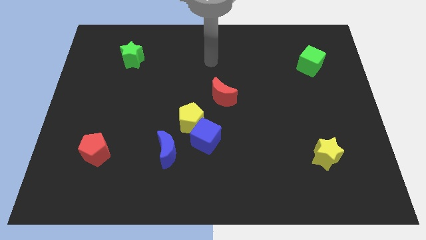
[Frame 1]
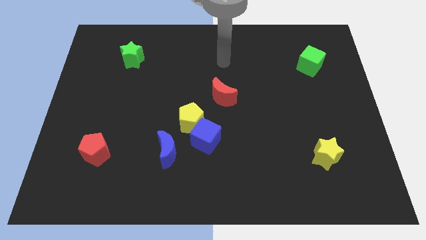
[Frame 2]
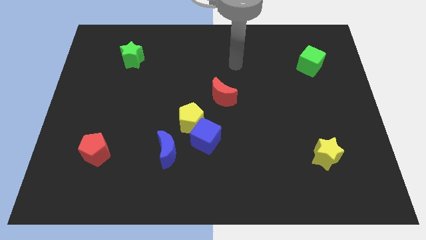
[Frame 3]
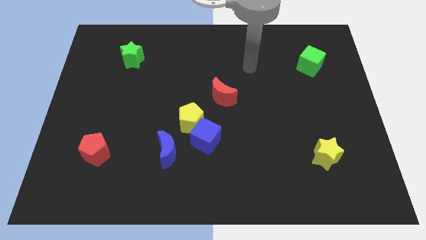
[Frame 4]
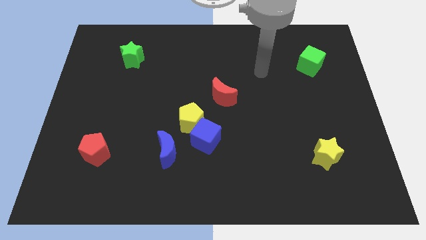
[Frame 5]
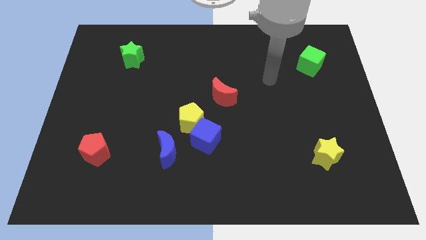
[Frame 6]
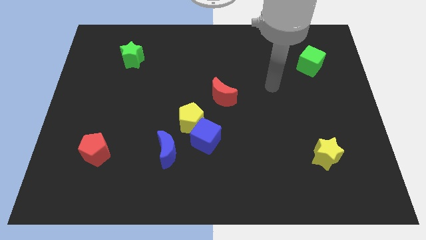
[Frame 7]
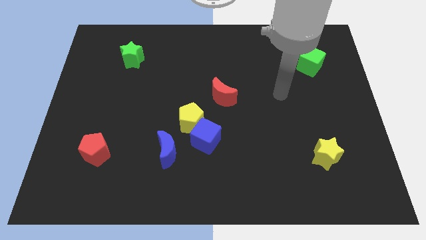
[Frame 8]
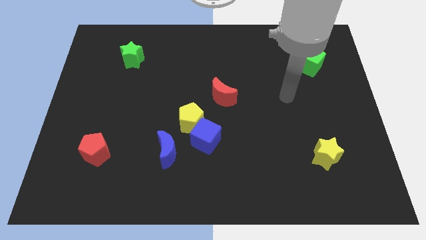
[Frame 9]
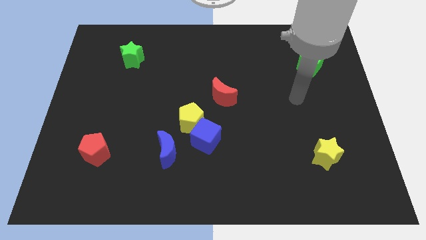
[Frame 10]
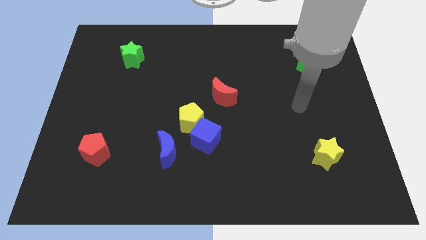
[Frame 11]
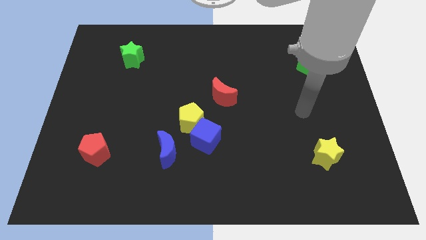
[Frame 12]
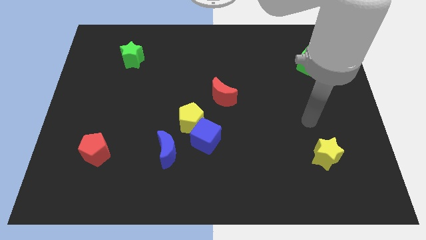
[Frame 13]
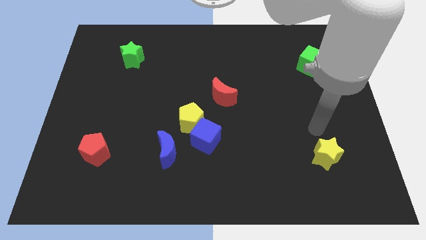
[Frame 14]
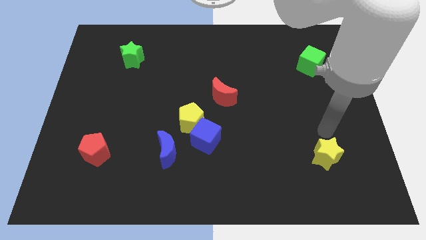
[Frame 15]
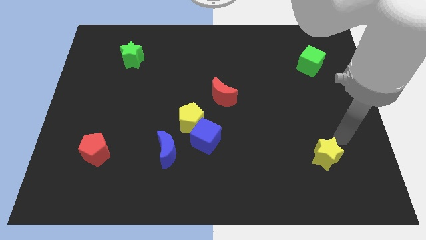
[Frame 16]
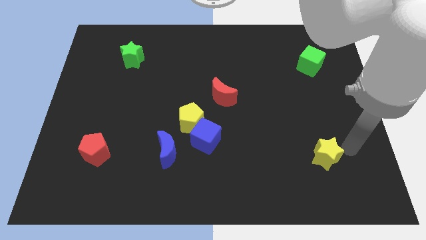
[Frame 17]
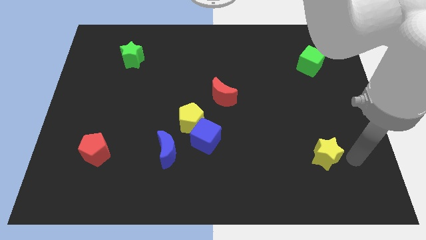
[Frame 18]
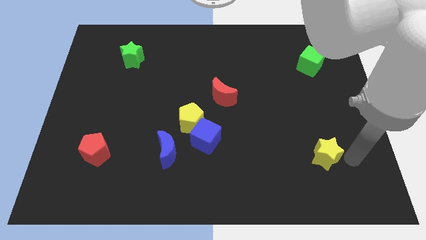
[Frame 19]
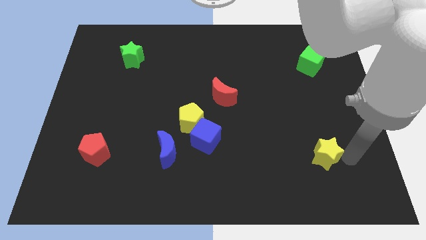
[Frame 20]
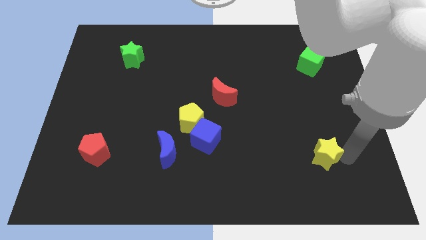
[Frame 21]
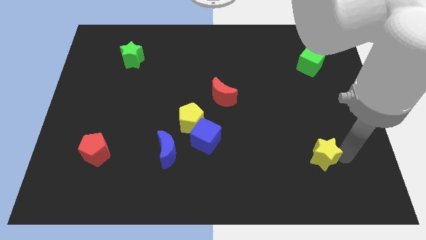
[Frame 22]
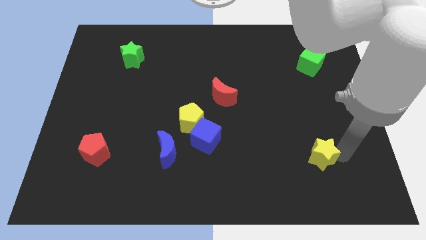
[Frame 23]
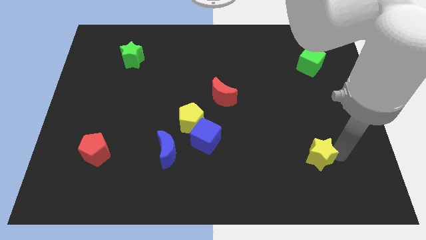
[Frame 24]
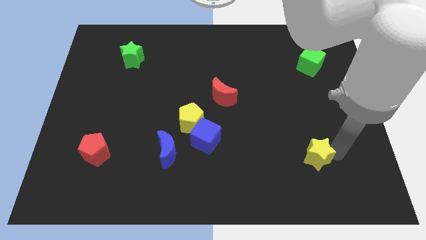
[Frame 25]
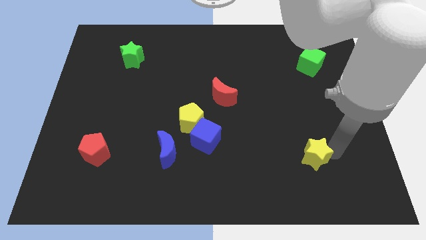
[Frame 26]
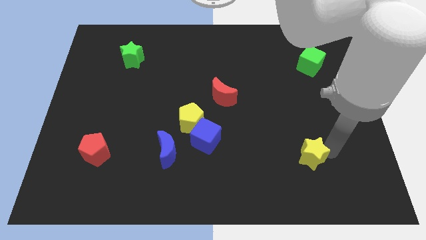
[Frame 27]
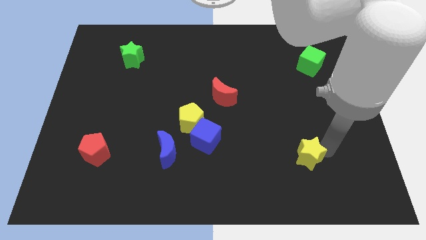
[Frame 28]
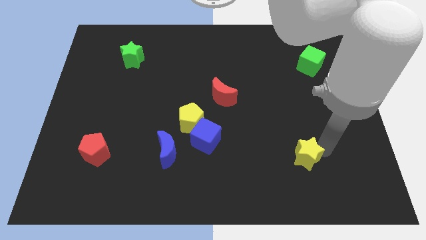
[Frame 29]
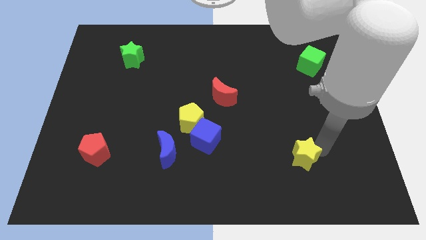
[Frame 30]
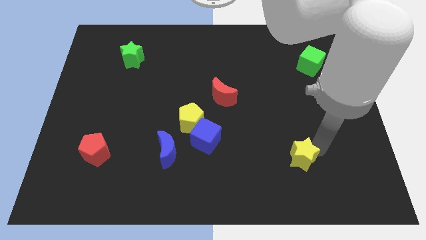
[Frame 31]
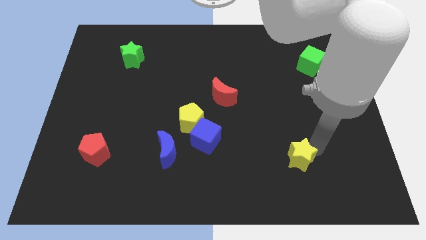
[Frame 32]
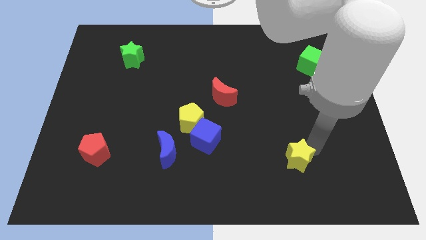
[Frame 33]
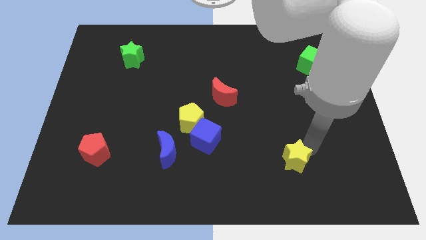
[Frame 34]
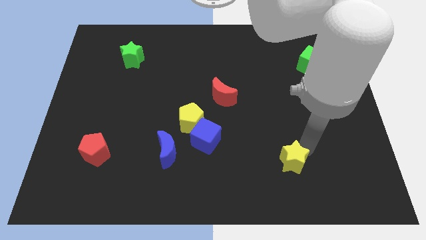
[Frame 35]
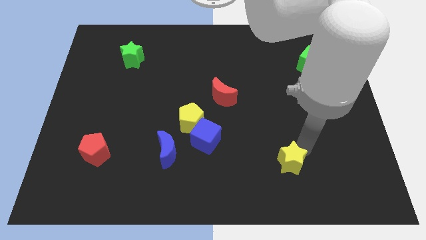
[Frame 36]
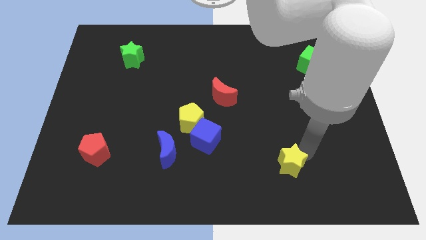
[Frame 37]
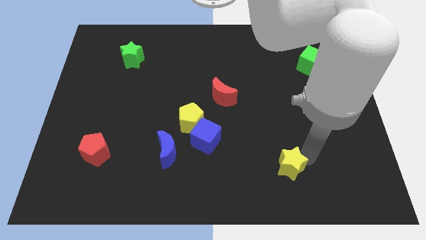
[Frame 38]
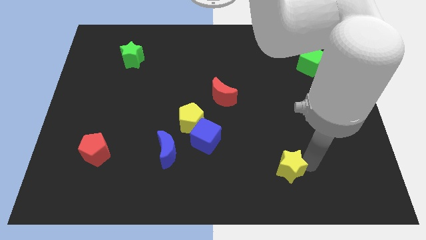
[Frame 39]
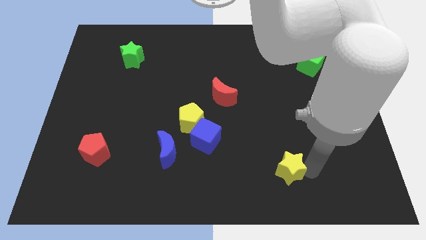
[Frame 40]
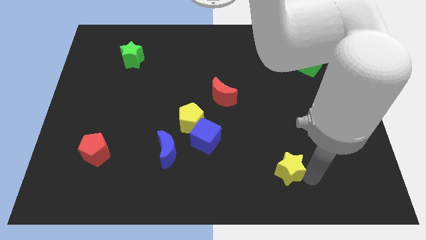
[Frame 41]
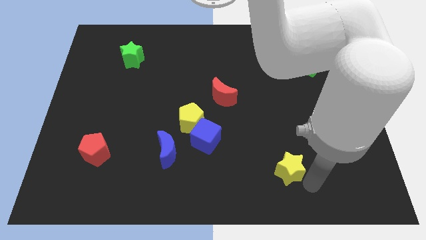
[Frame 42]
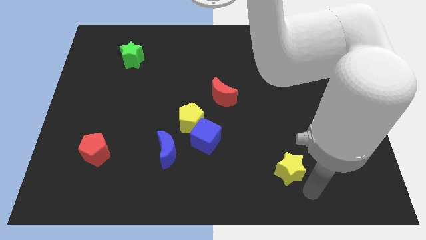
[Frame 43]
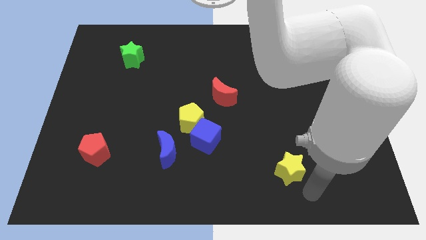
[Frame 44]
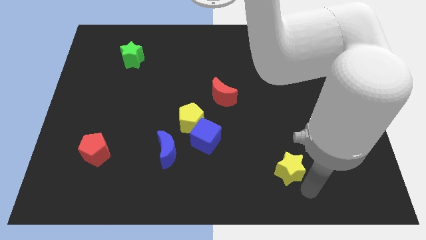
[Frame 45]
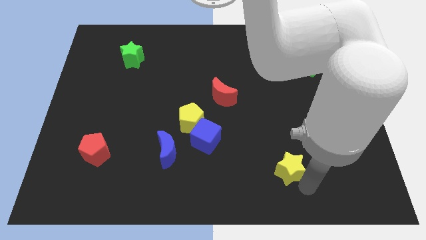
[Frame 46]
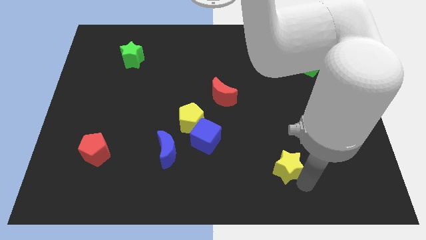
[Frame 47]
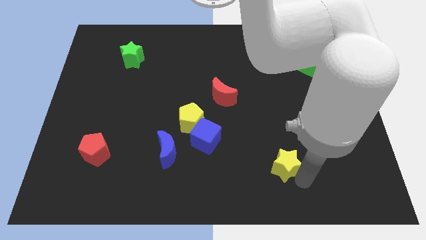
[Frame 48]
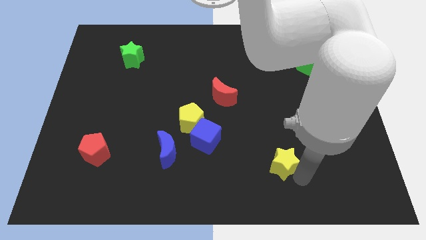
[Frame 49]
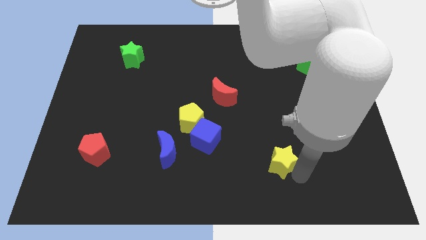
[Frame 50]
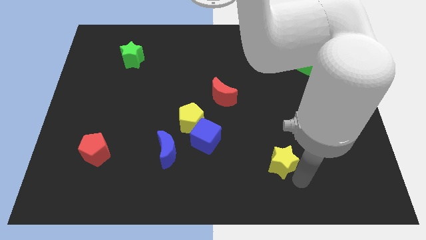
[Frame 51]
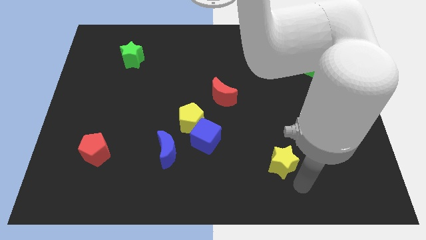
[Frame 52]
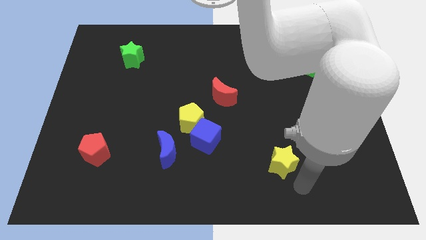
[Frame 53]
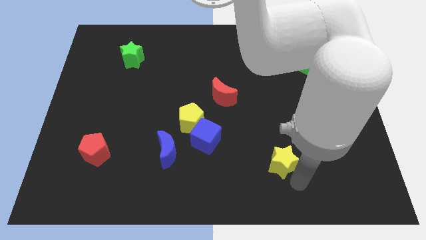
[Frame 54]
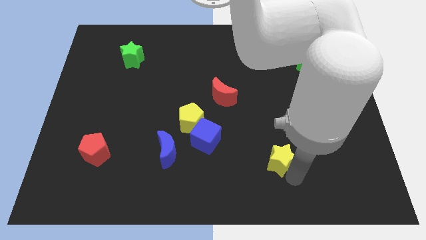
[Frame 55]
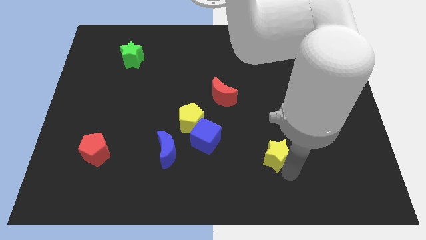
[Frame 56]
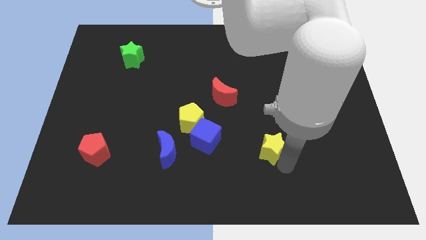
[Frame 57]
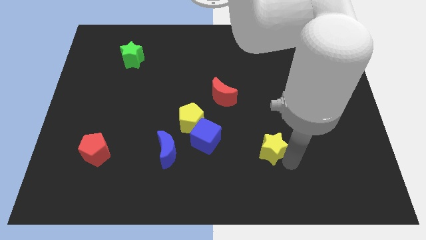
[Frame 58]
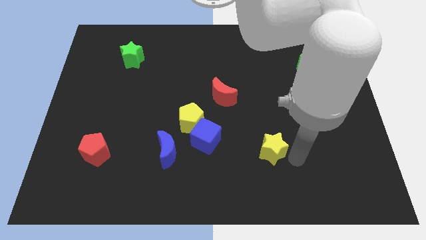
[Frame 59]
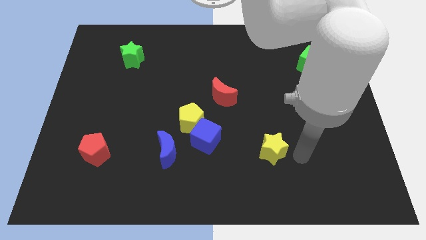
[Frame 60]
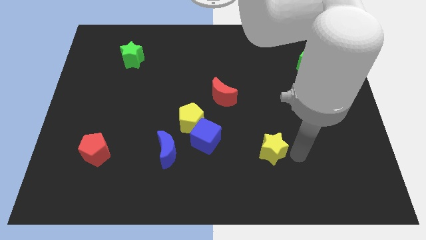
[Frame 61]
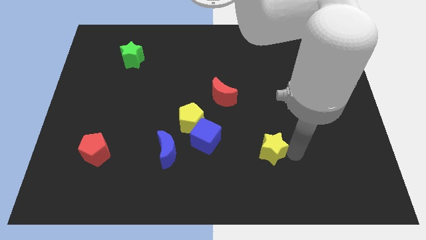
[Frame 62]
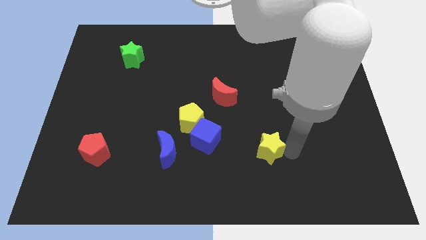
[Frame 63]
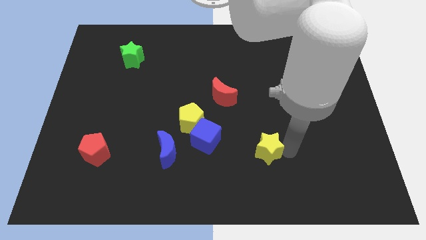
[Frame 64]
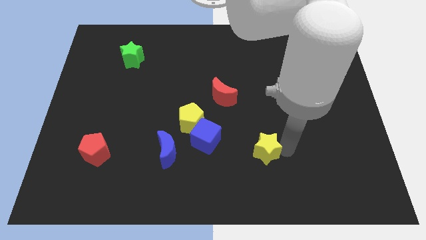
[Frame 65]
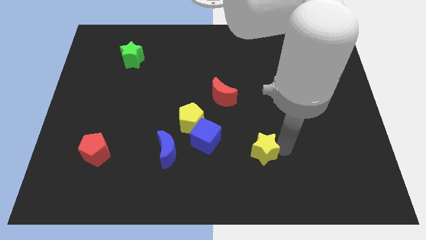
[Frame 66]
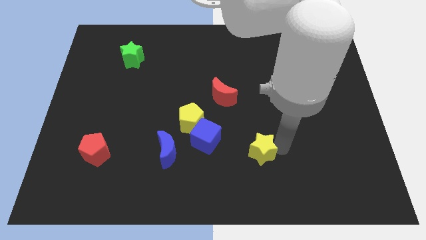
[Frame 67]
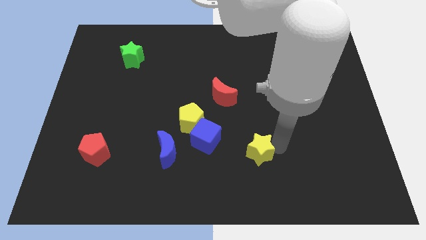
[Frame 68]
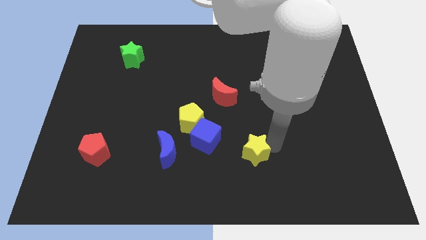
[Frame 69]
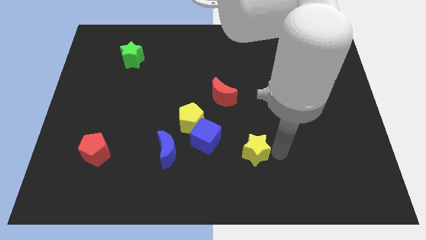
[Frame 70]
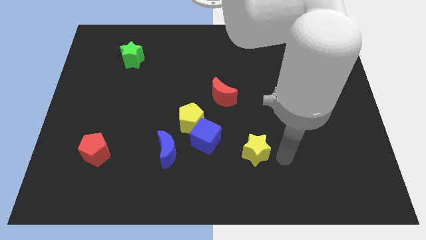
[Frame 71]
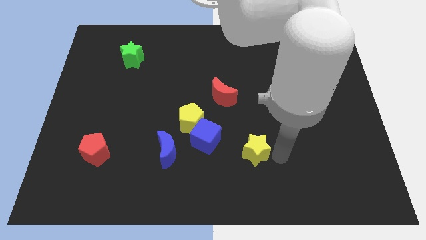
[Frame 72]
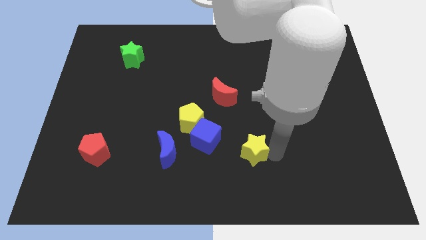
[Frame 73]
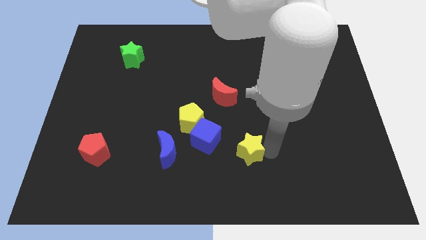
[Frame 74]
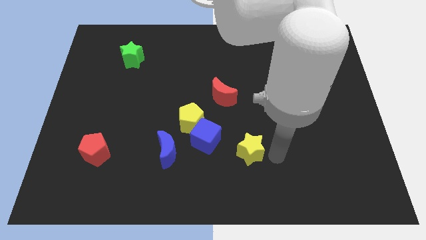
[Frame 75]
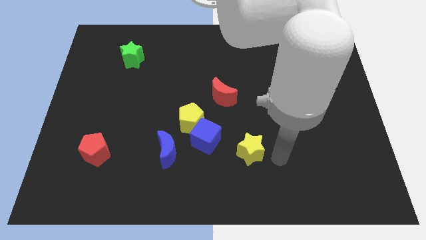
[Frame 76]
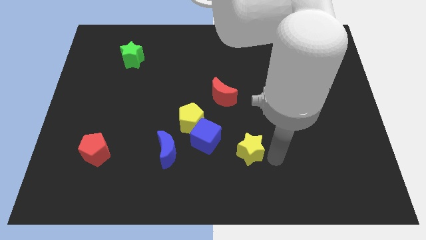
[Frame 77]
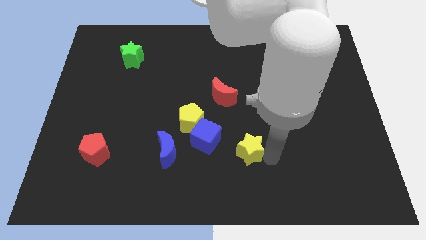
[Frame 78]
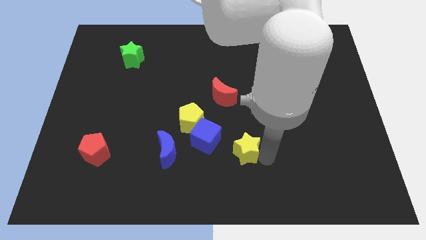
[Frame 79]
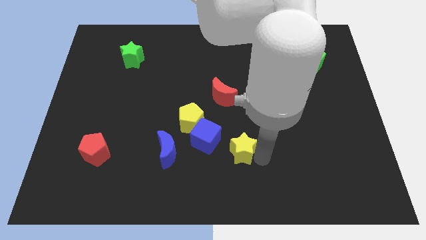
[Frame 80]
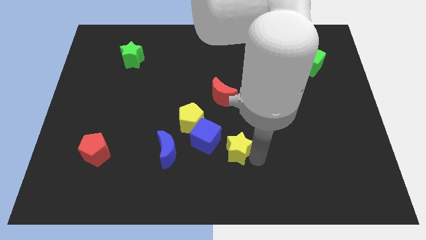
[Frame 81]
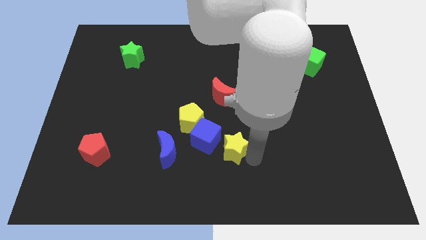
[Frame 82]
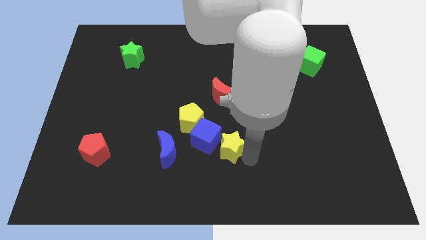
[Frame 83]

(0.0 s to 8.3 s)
move the yellow star close to the blue cube

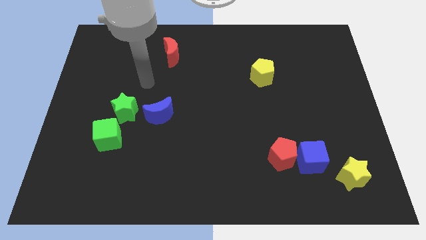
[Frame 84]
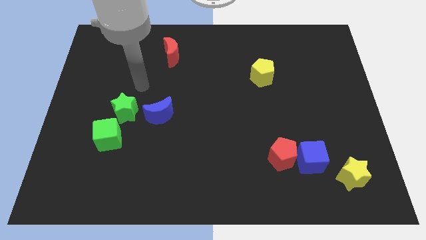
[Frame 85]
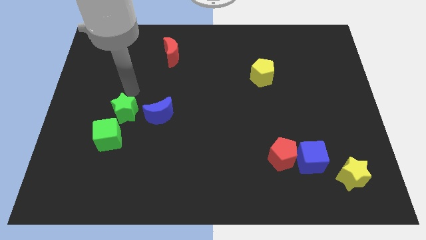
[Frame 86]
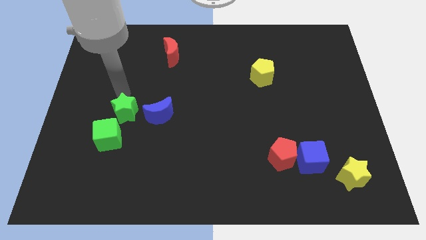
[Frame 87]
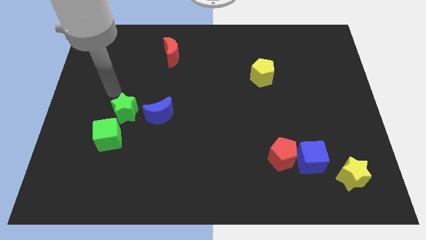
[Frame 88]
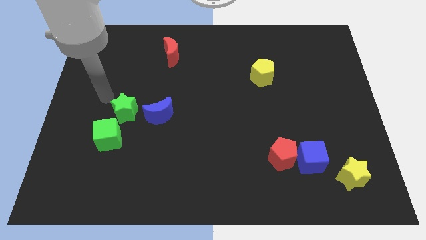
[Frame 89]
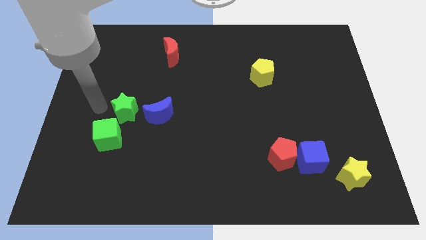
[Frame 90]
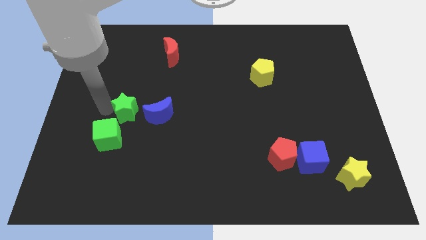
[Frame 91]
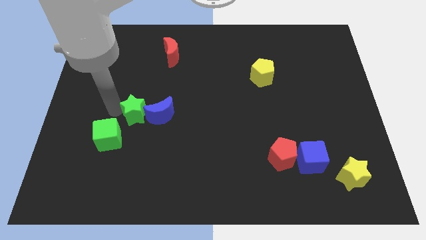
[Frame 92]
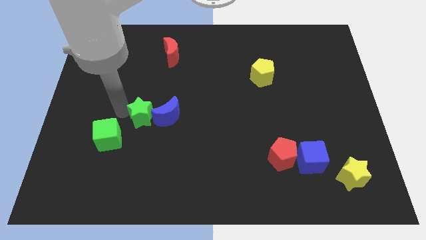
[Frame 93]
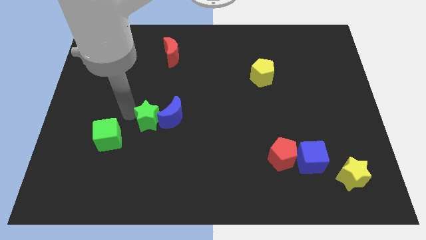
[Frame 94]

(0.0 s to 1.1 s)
push the green star close to the blue moon
